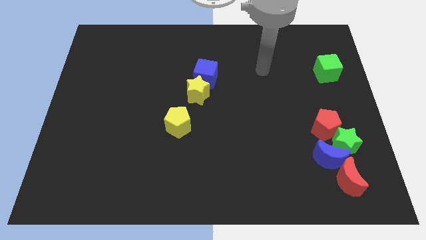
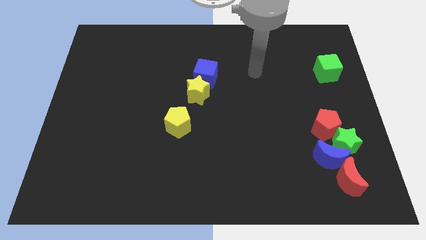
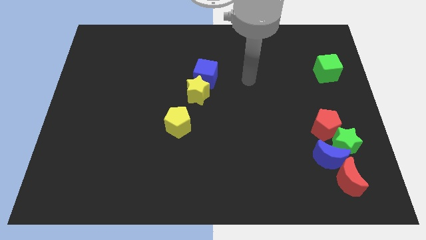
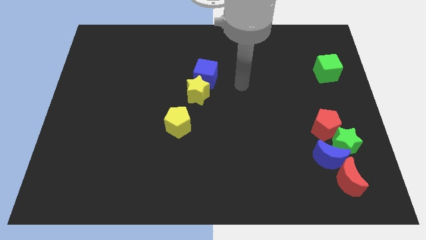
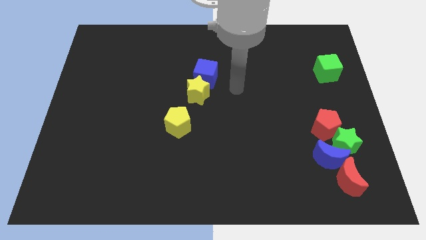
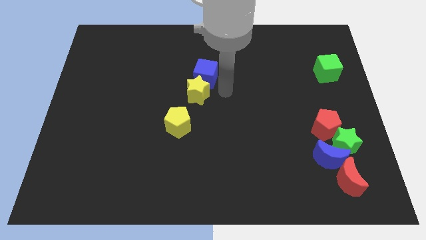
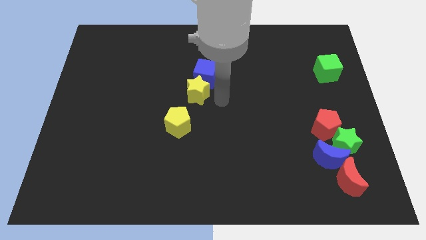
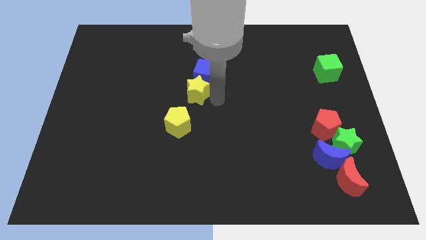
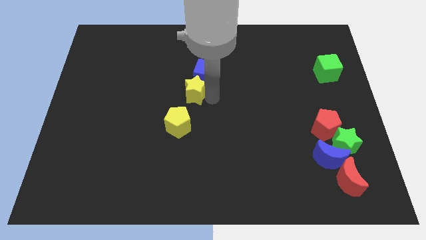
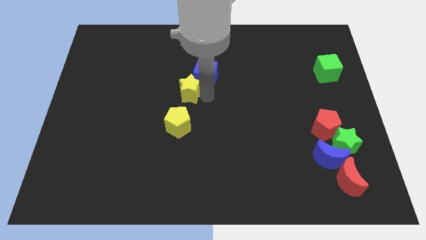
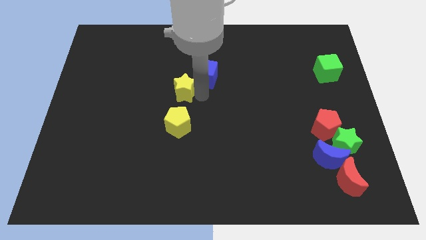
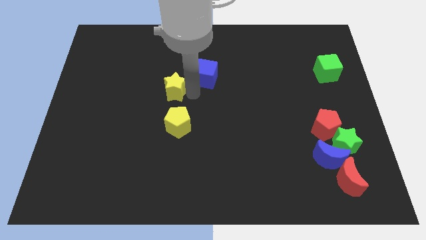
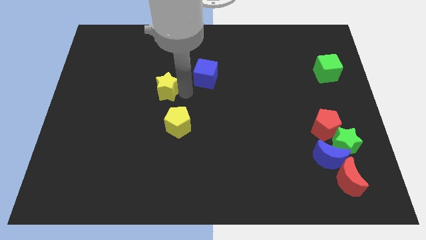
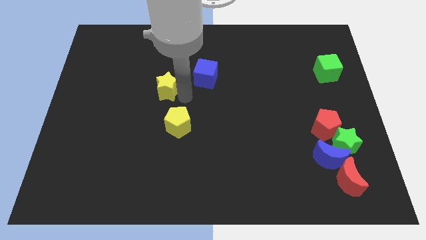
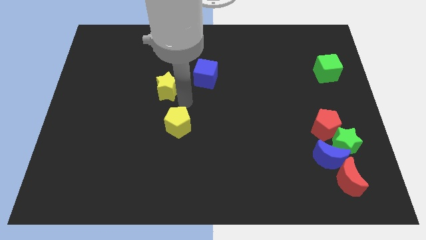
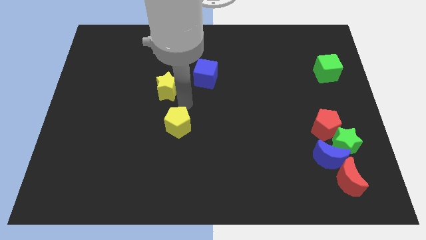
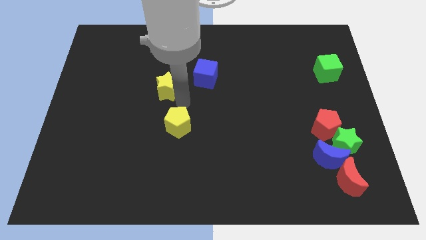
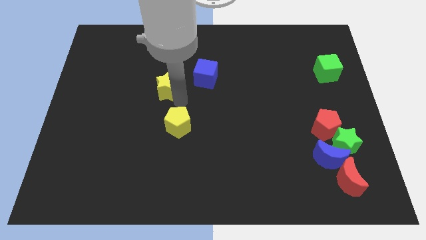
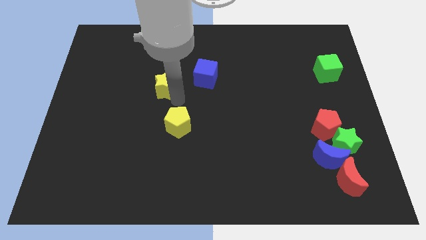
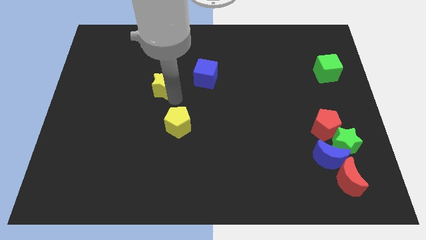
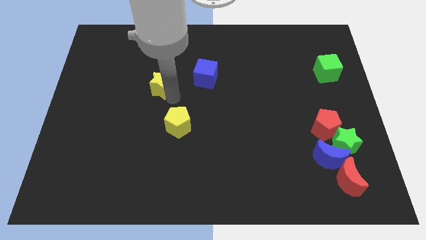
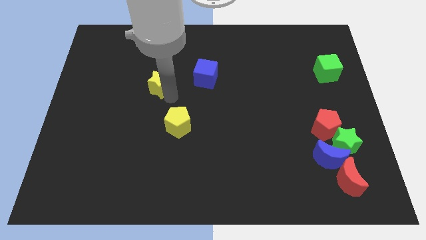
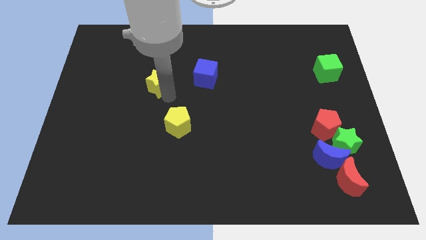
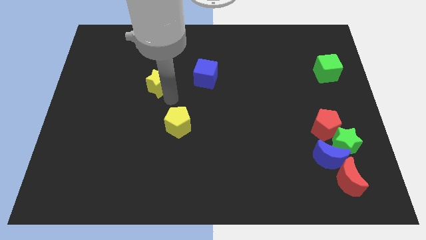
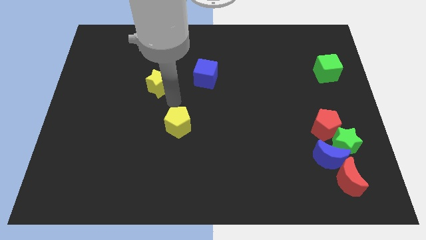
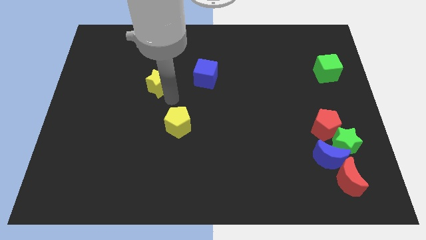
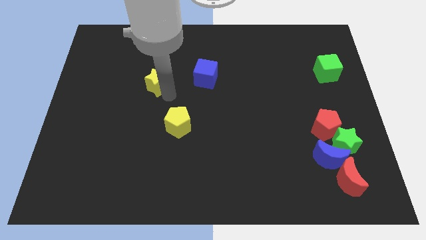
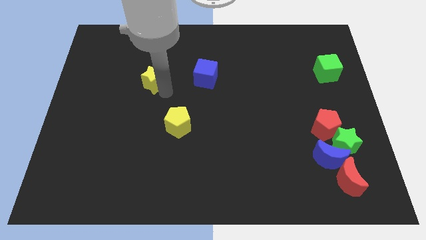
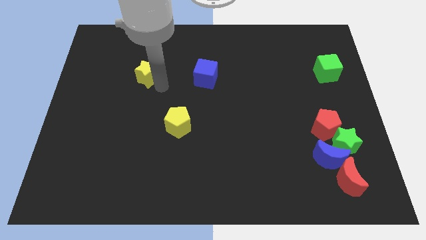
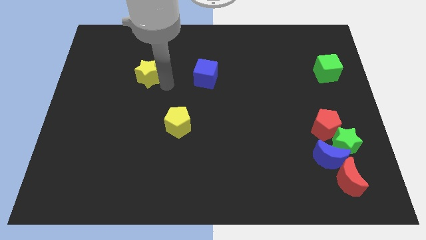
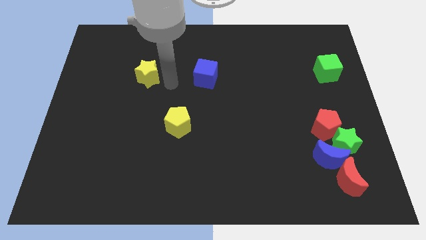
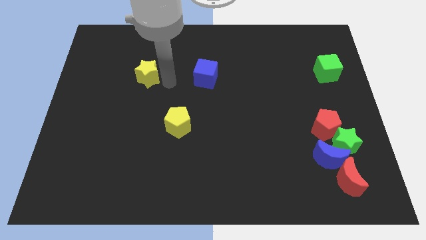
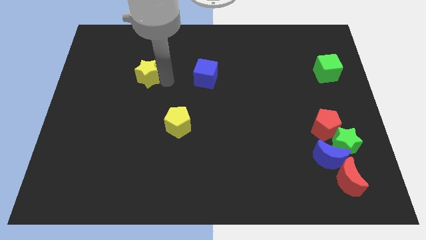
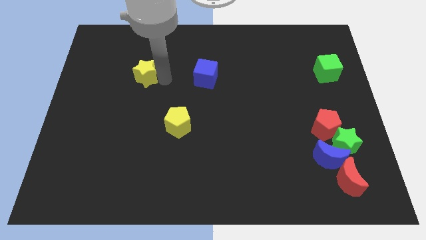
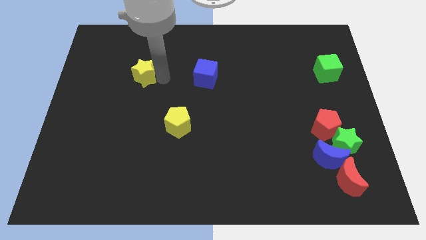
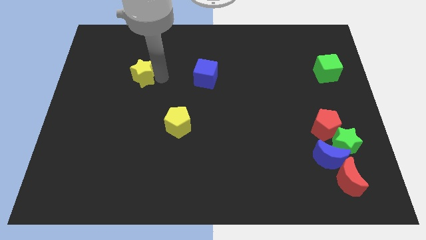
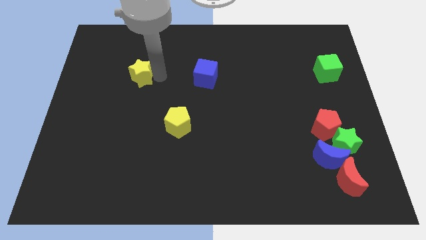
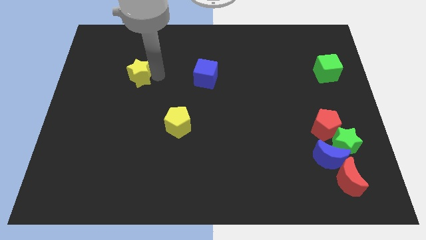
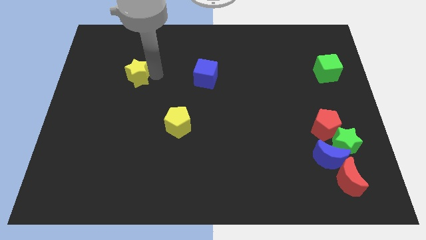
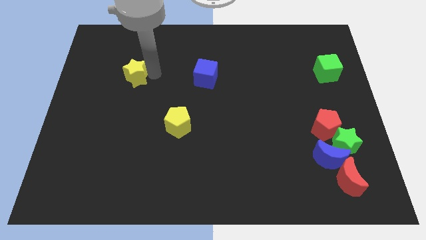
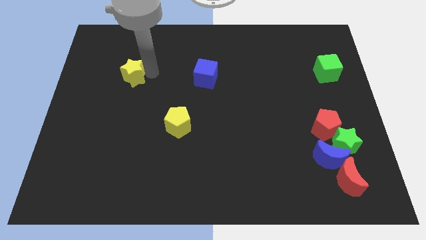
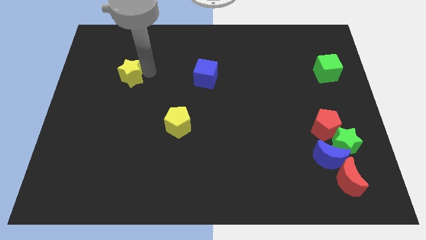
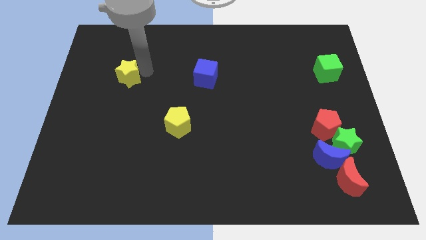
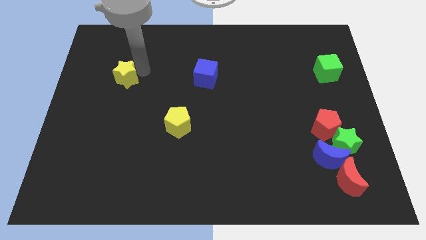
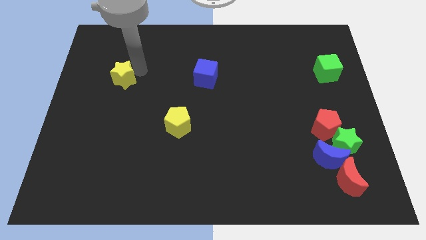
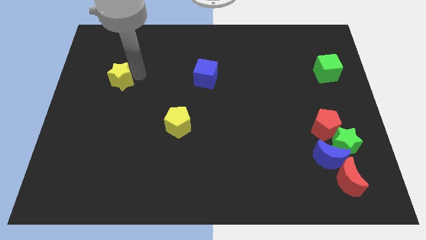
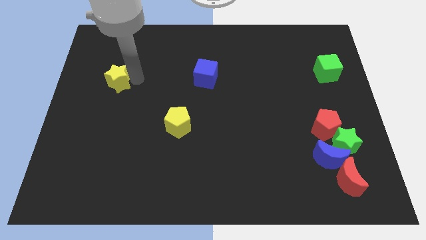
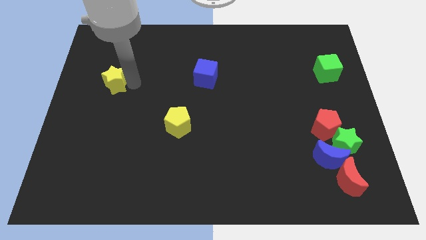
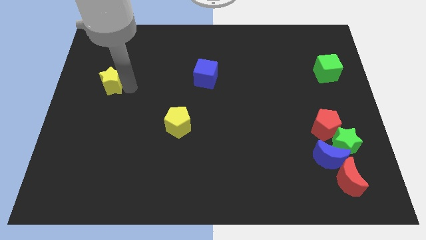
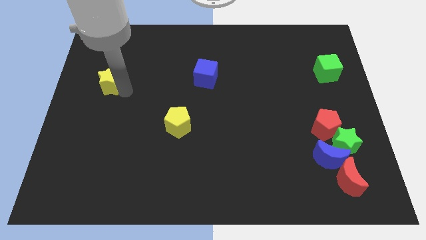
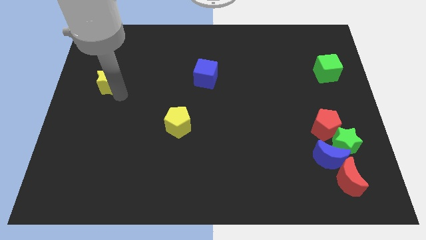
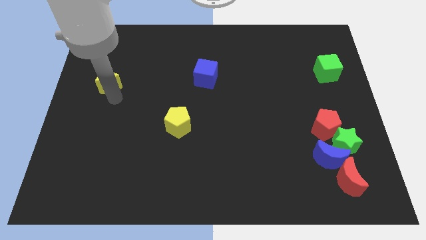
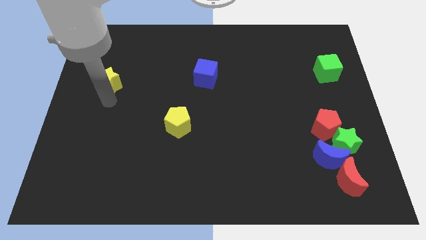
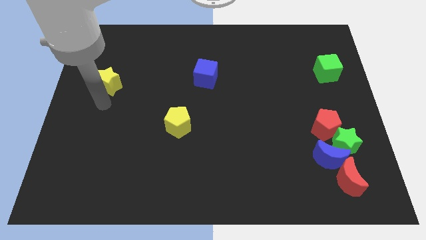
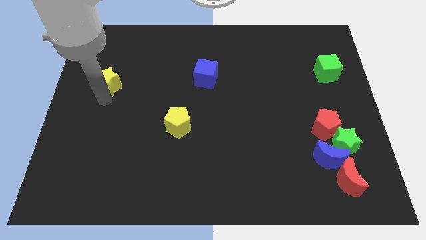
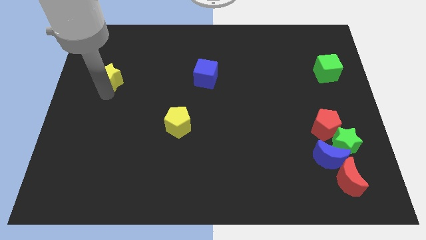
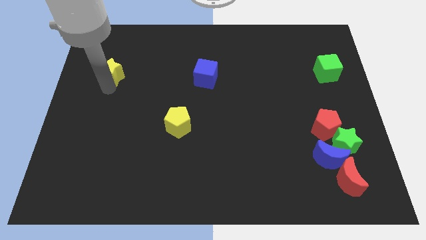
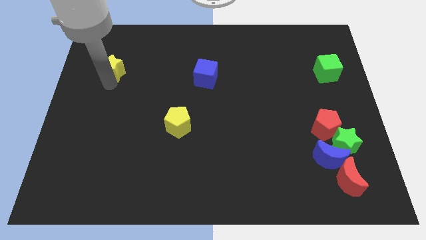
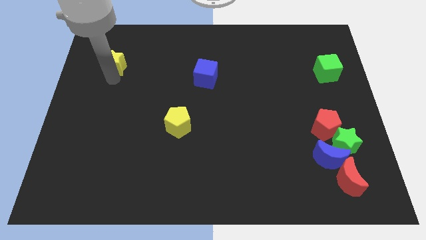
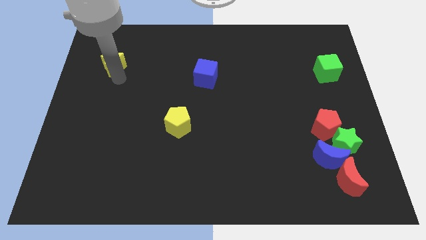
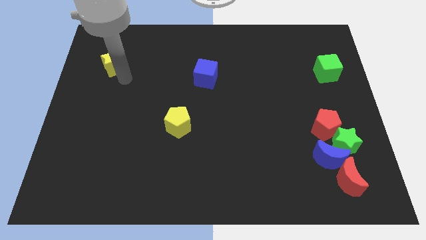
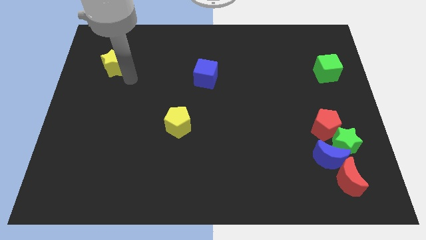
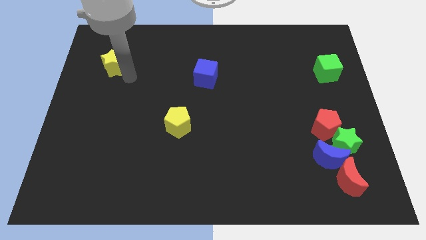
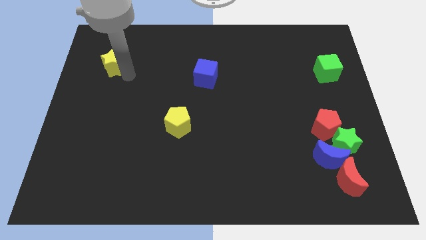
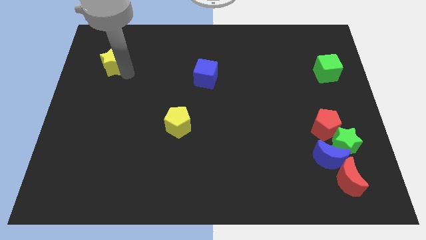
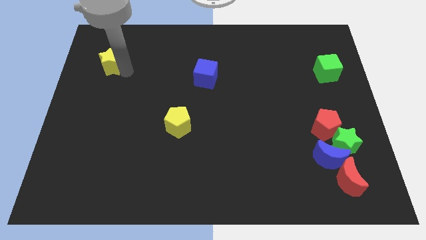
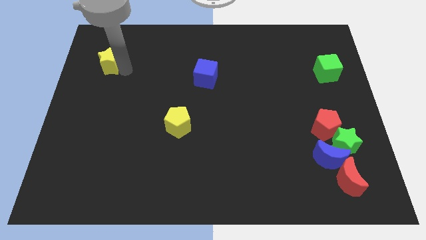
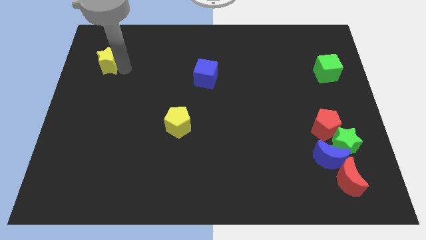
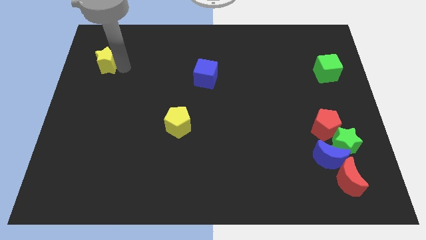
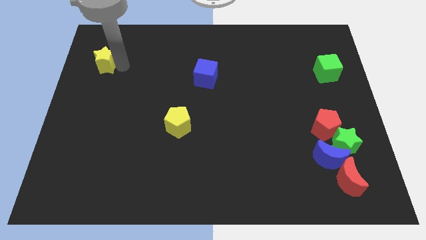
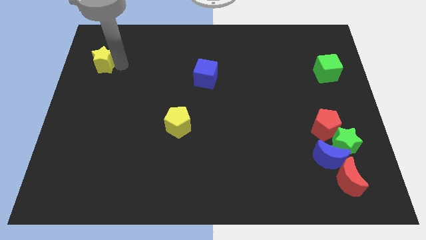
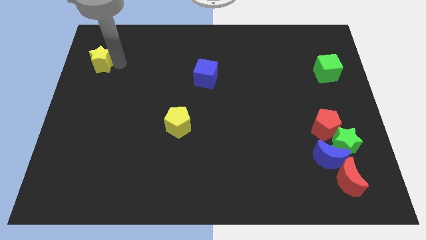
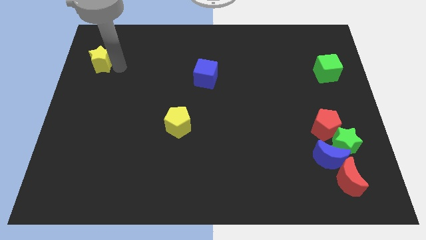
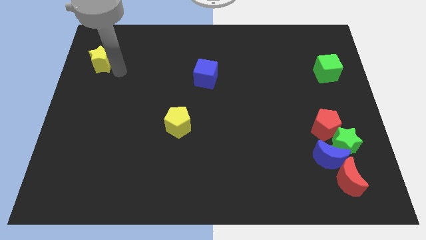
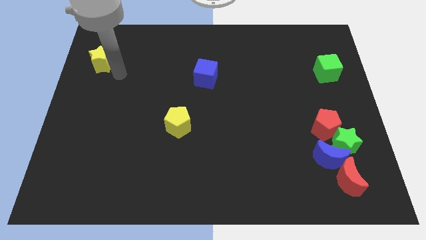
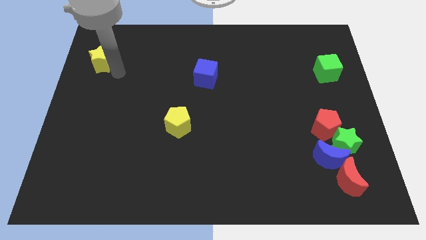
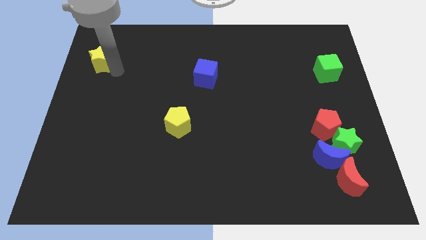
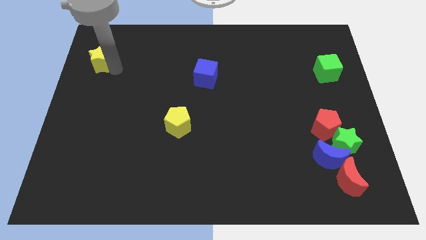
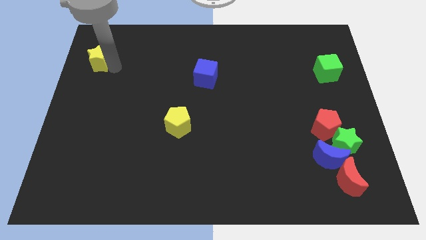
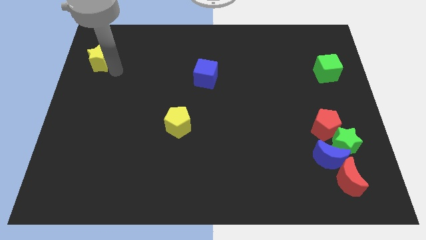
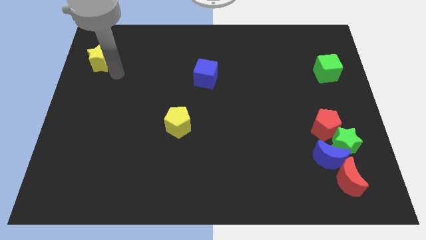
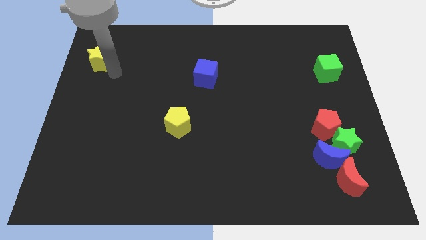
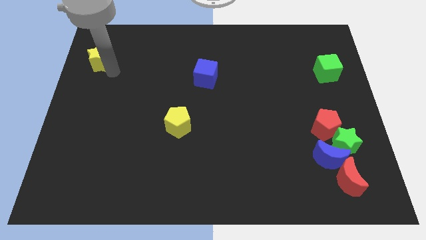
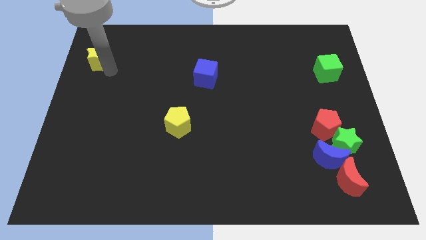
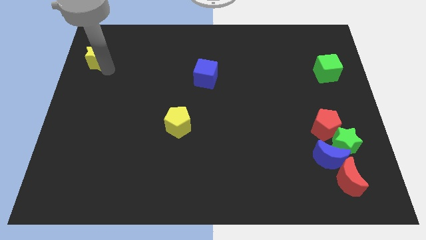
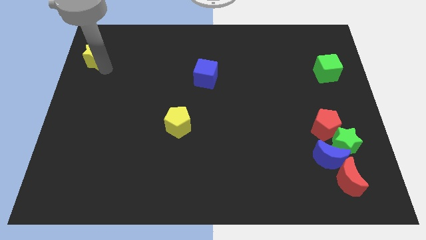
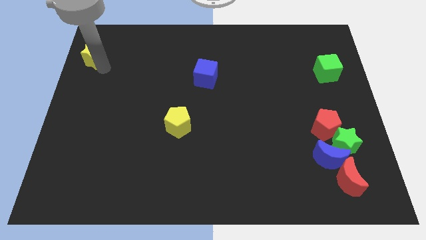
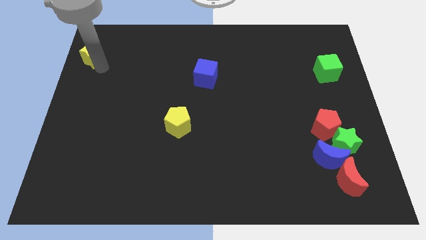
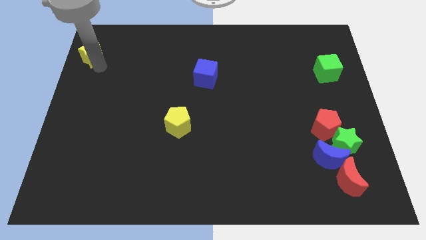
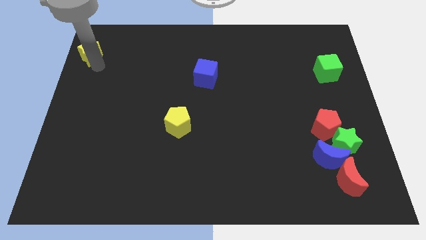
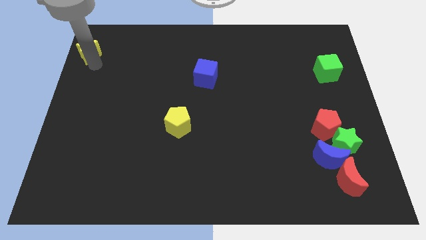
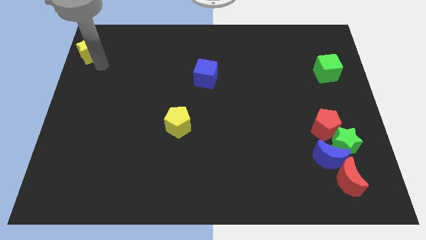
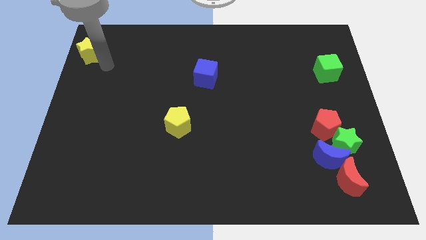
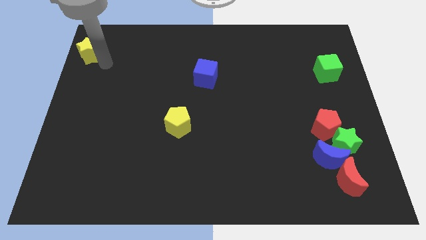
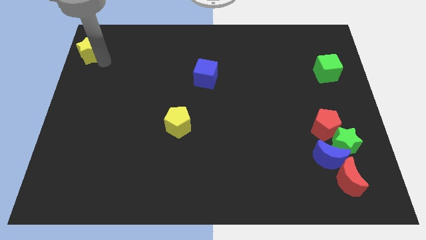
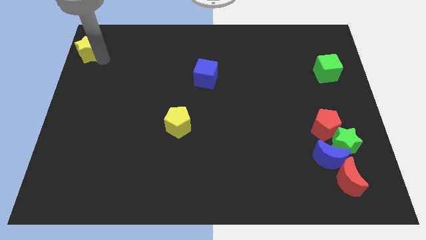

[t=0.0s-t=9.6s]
put the yellow star to the top left of the board
